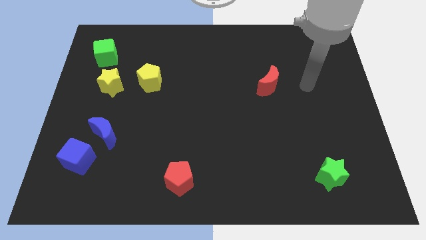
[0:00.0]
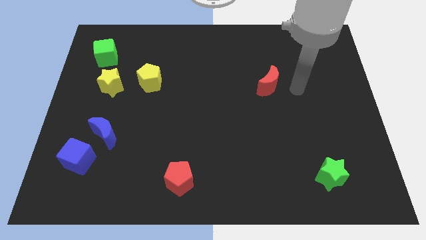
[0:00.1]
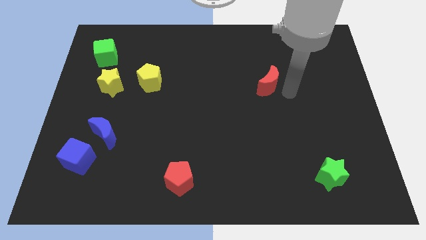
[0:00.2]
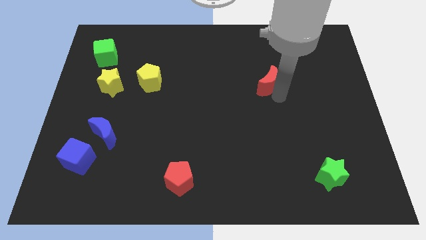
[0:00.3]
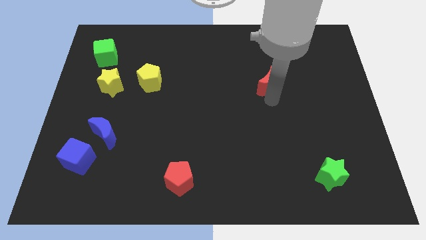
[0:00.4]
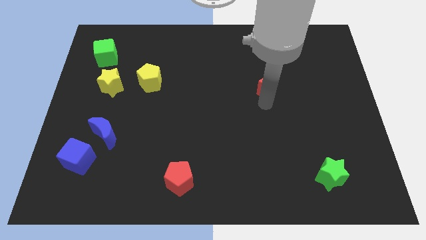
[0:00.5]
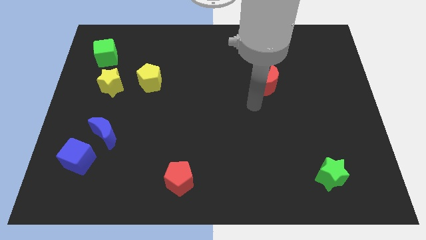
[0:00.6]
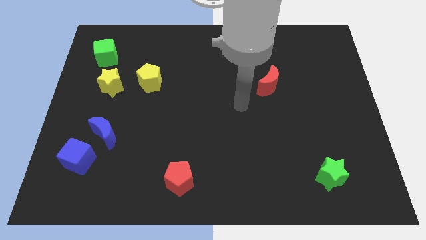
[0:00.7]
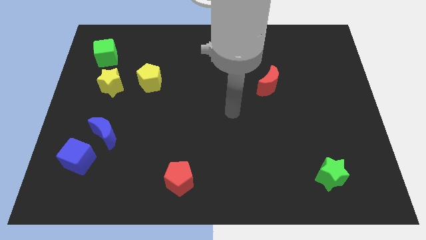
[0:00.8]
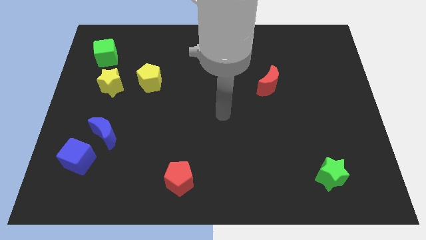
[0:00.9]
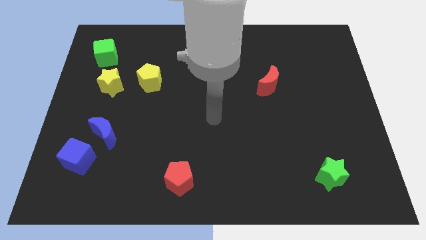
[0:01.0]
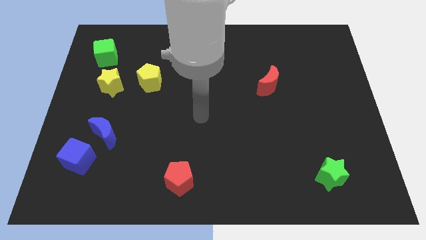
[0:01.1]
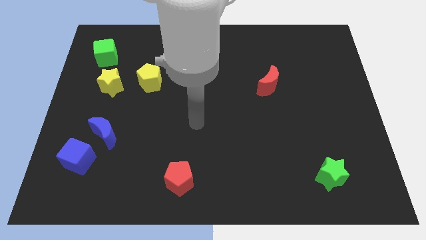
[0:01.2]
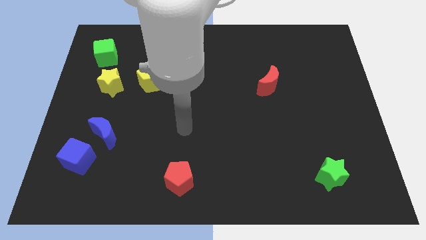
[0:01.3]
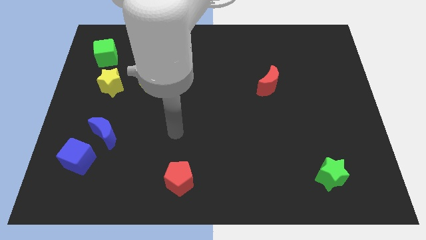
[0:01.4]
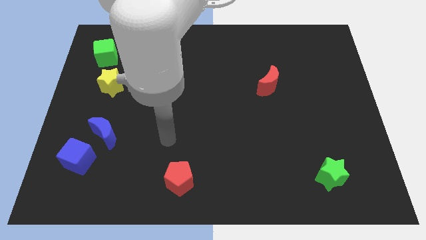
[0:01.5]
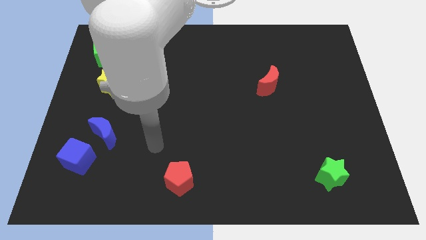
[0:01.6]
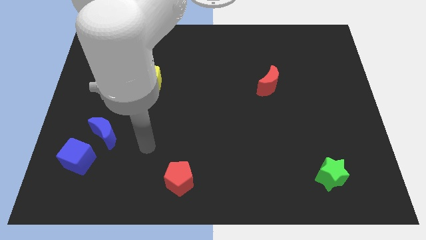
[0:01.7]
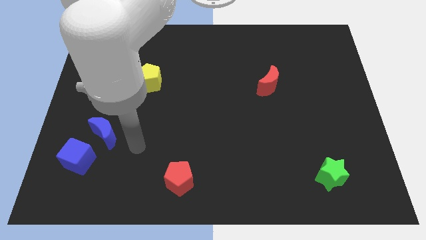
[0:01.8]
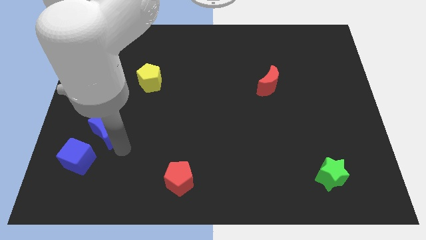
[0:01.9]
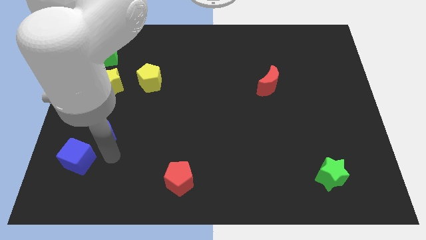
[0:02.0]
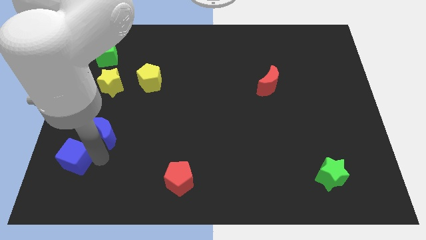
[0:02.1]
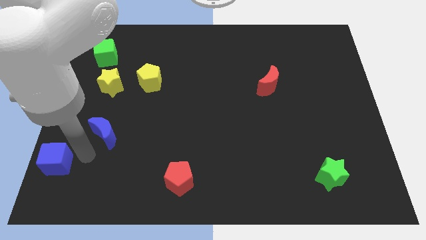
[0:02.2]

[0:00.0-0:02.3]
pull the blue moon apart from the blue cube

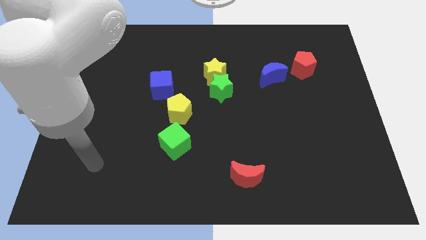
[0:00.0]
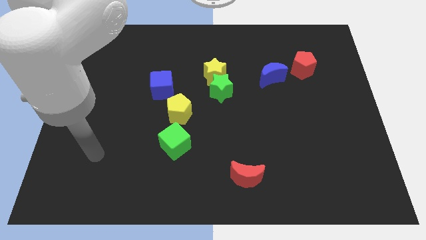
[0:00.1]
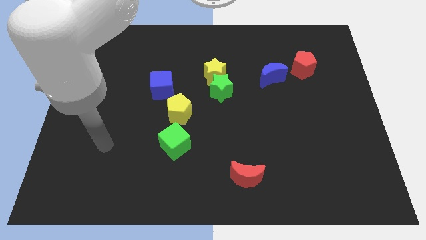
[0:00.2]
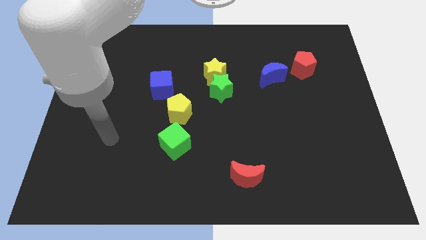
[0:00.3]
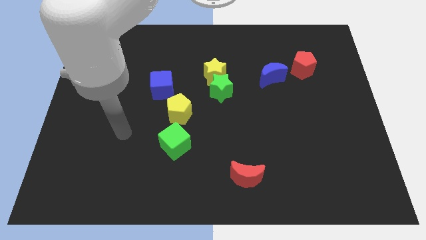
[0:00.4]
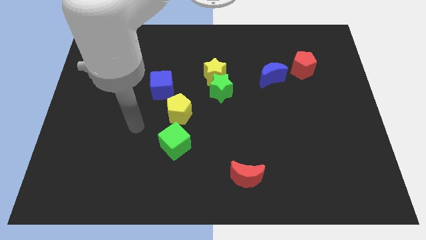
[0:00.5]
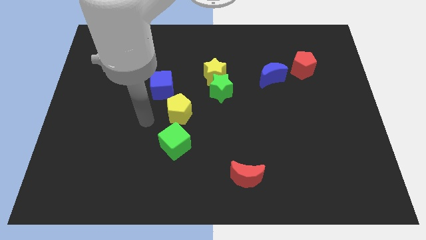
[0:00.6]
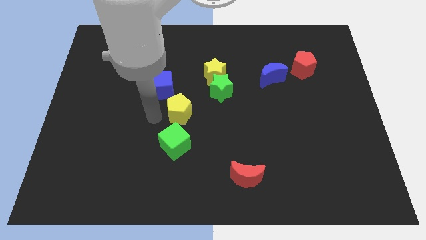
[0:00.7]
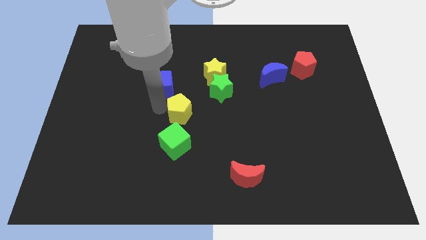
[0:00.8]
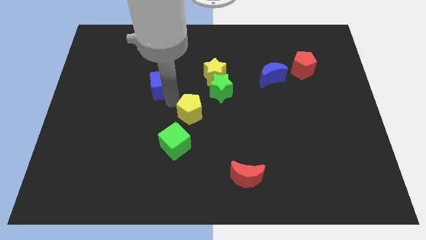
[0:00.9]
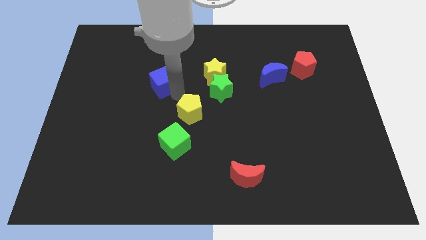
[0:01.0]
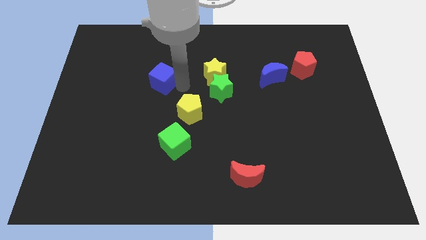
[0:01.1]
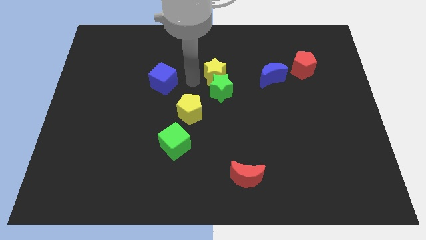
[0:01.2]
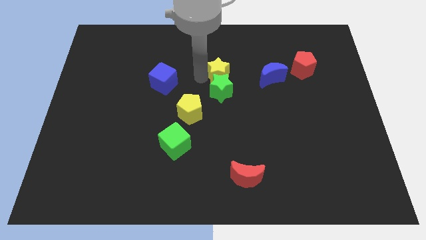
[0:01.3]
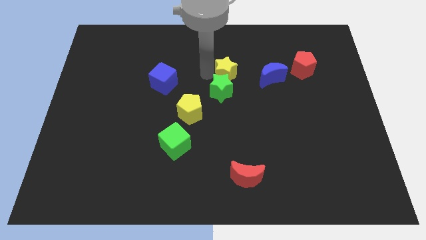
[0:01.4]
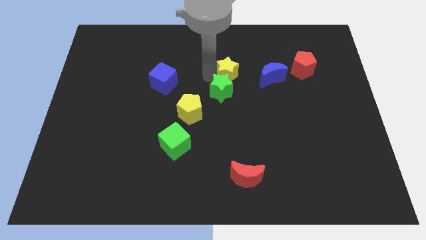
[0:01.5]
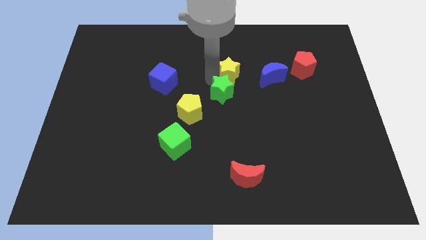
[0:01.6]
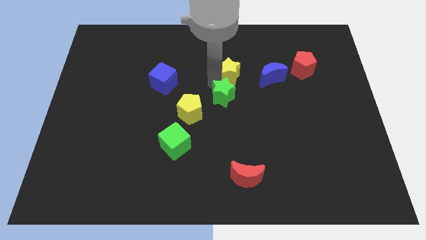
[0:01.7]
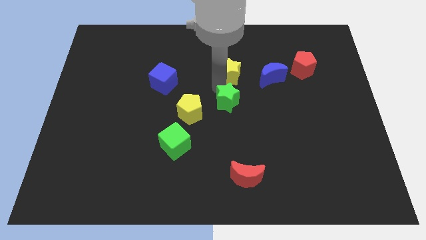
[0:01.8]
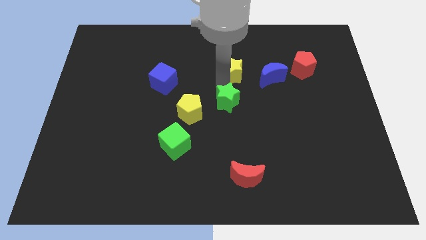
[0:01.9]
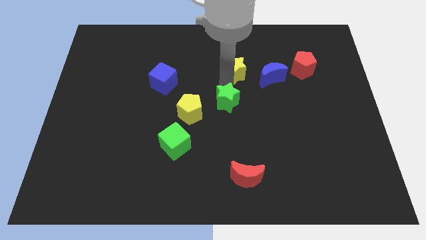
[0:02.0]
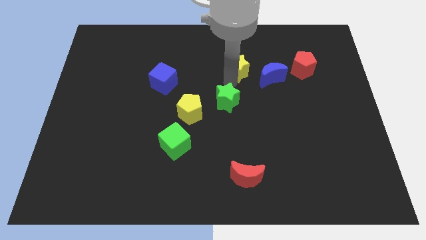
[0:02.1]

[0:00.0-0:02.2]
pull the green star apart from the yellow star

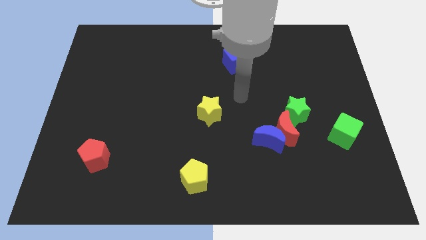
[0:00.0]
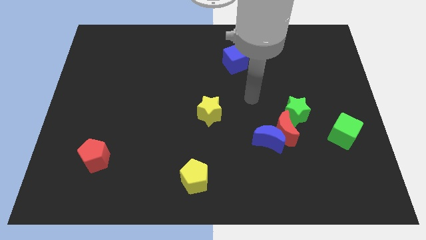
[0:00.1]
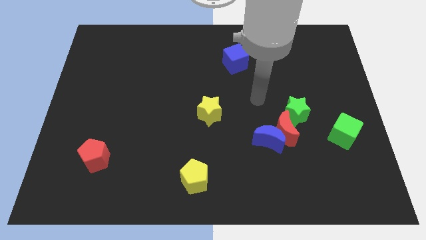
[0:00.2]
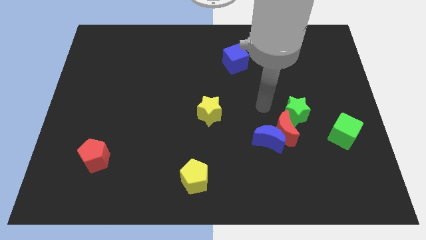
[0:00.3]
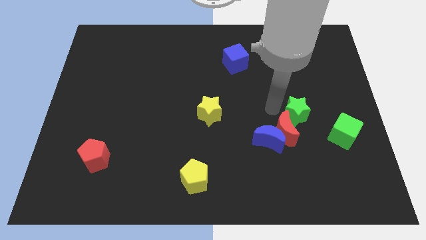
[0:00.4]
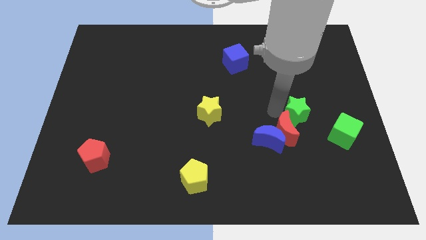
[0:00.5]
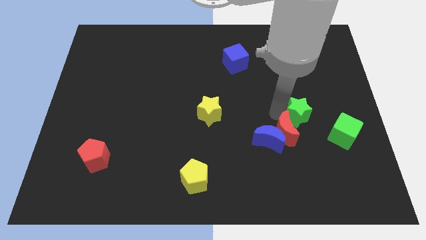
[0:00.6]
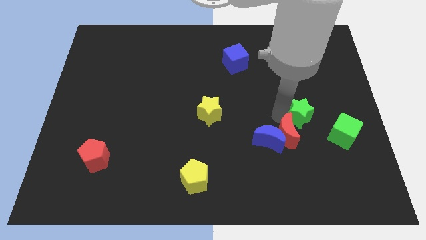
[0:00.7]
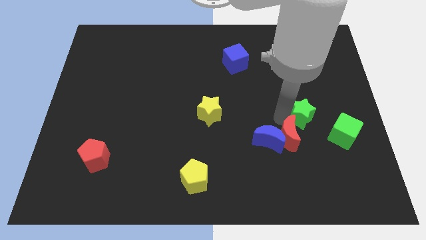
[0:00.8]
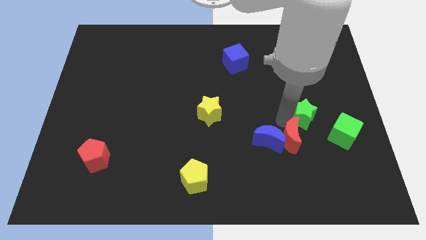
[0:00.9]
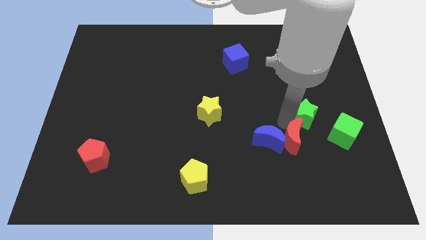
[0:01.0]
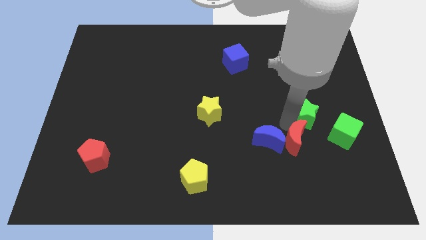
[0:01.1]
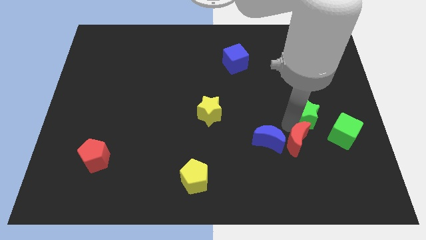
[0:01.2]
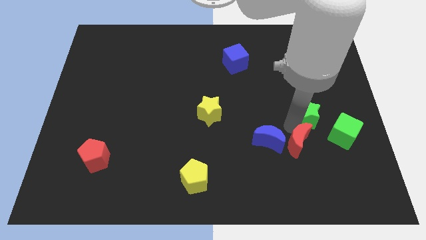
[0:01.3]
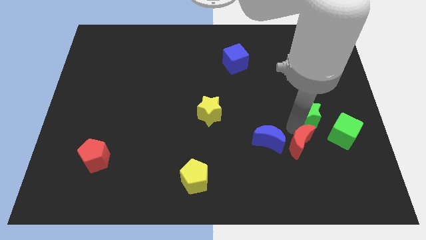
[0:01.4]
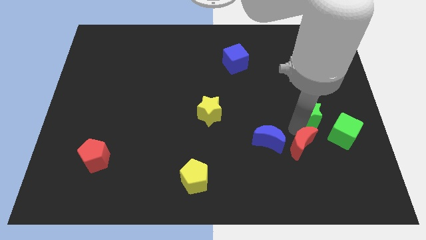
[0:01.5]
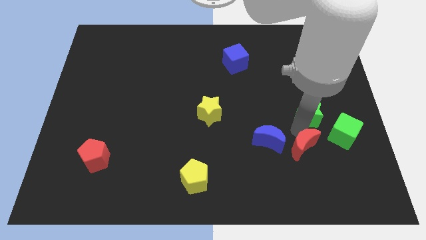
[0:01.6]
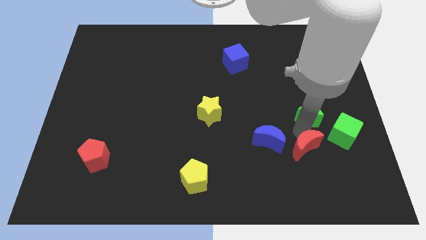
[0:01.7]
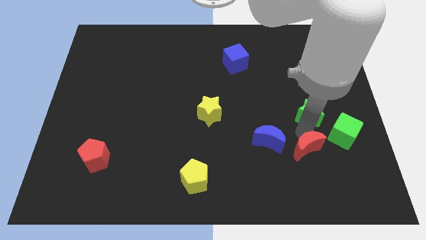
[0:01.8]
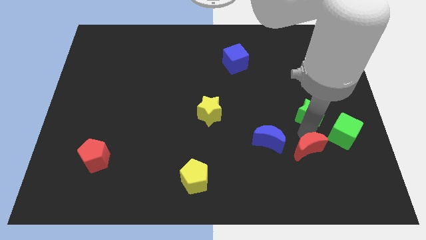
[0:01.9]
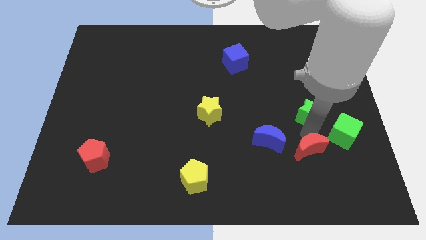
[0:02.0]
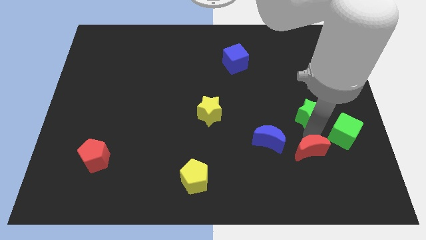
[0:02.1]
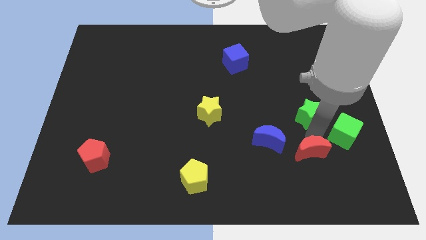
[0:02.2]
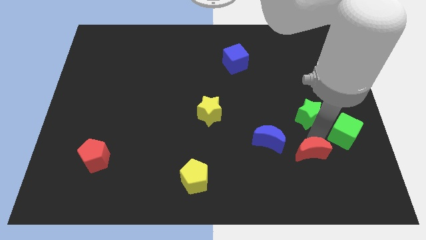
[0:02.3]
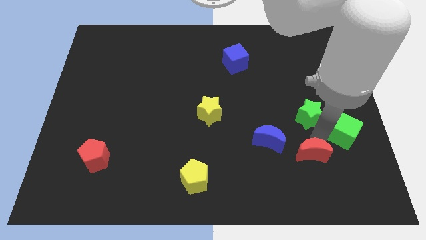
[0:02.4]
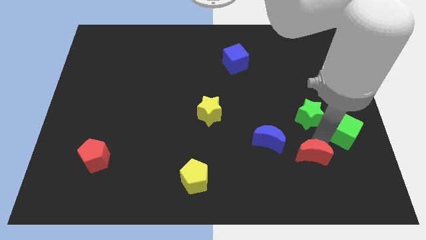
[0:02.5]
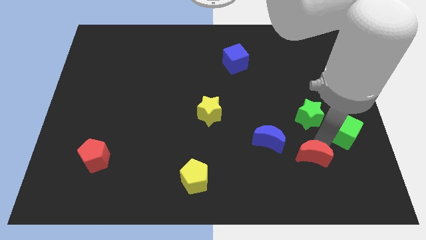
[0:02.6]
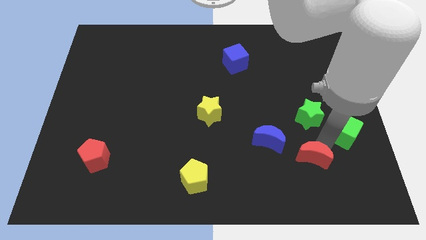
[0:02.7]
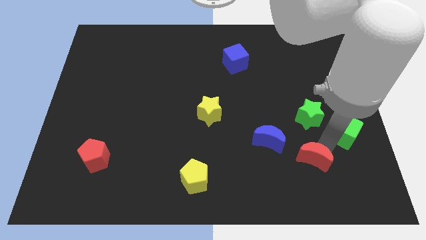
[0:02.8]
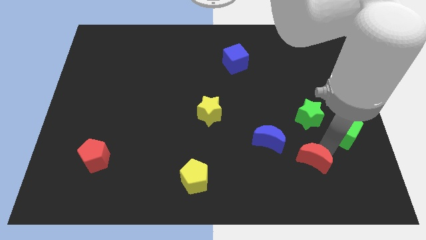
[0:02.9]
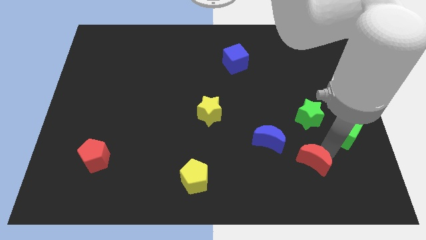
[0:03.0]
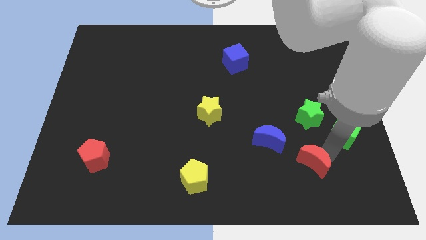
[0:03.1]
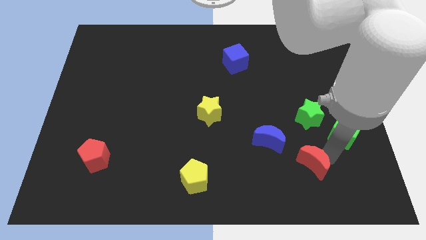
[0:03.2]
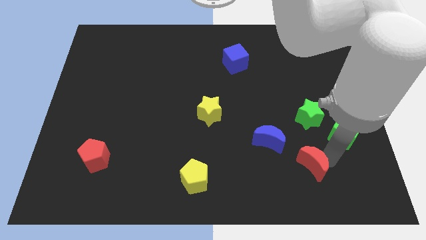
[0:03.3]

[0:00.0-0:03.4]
move the red moon away from the blue moon and green star

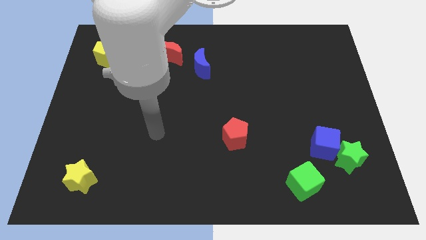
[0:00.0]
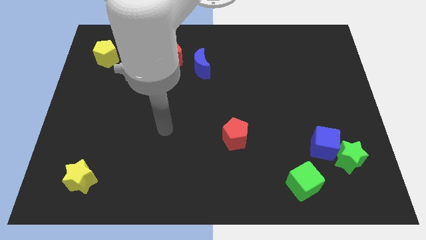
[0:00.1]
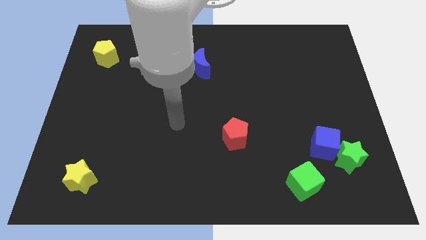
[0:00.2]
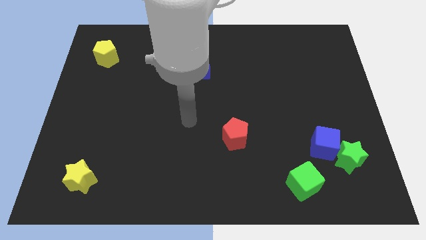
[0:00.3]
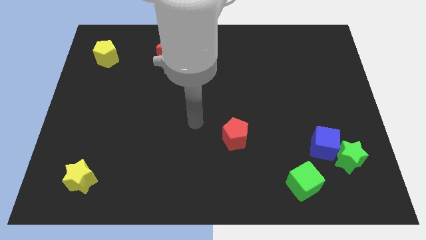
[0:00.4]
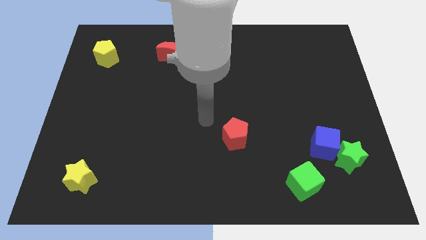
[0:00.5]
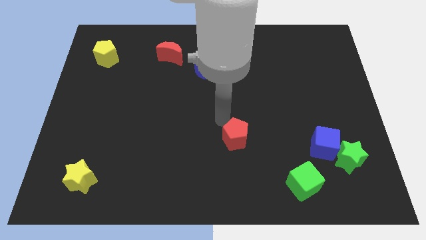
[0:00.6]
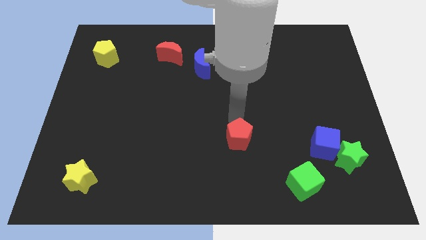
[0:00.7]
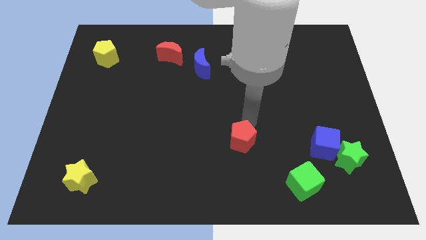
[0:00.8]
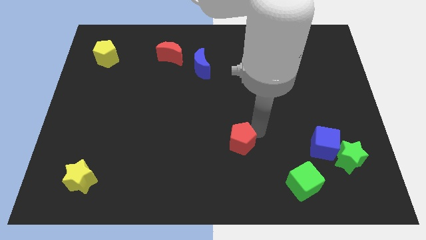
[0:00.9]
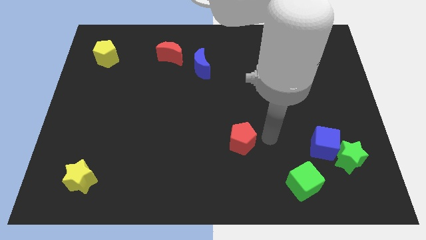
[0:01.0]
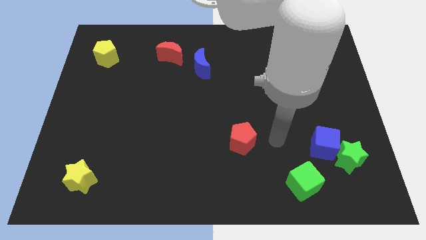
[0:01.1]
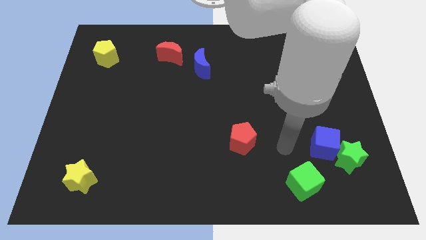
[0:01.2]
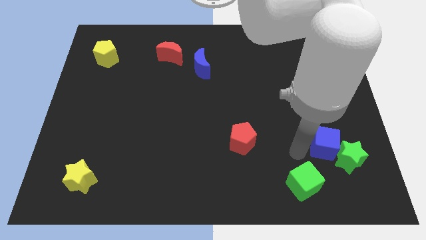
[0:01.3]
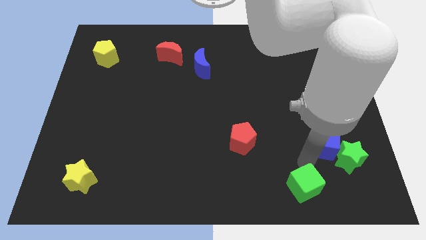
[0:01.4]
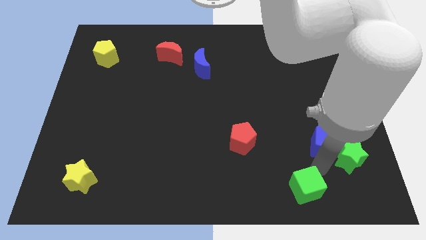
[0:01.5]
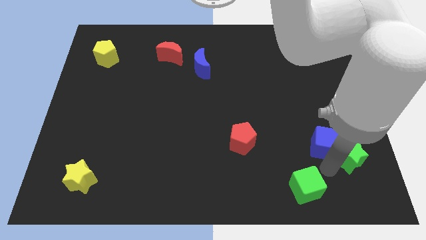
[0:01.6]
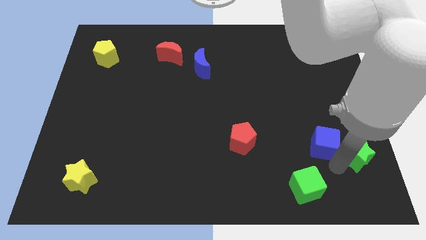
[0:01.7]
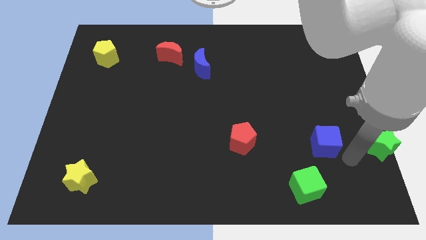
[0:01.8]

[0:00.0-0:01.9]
separate the blue cube from the green star
